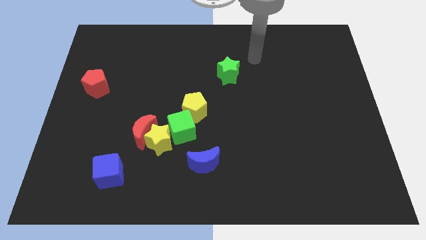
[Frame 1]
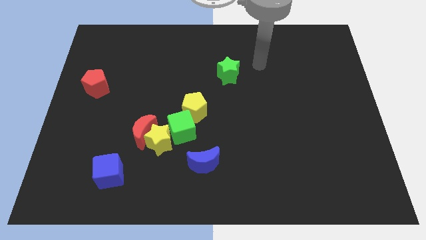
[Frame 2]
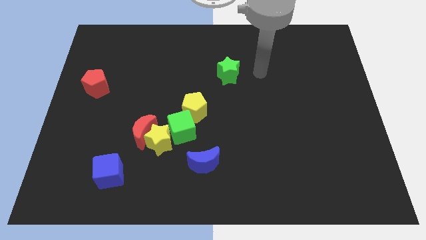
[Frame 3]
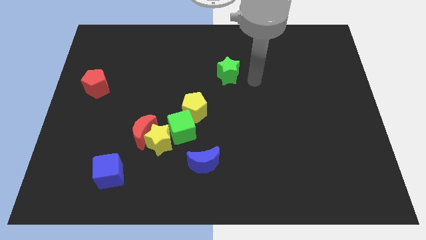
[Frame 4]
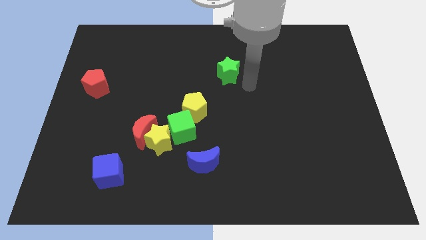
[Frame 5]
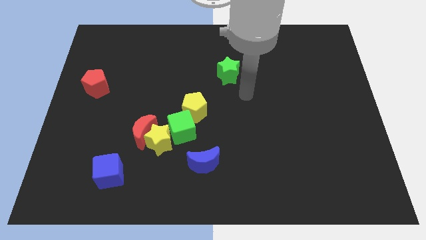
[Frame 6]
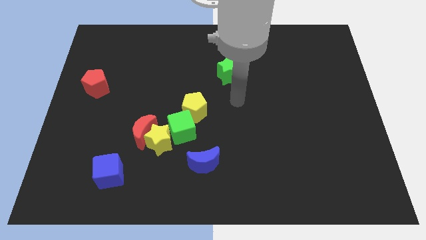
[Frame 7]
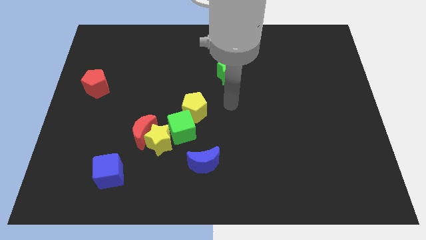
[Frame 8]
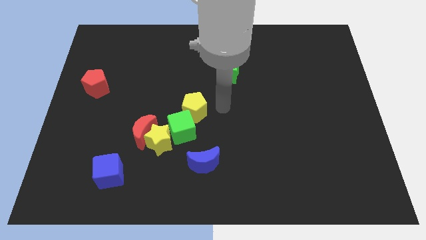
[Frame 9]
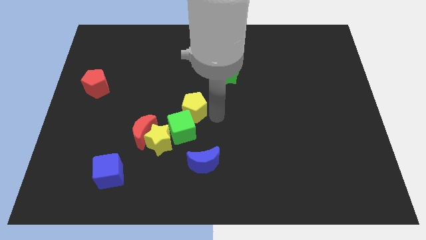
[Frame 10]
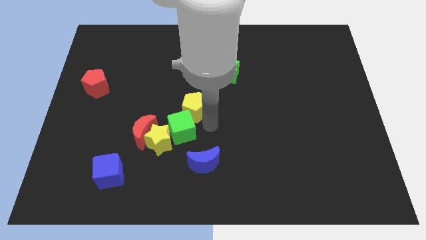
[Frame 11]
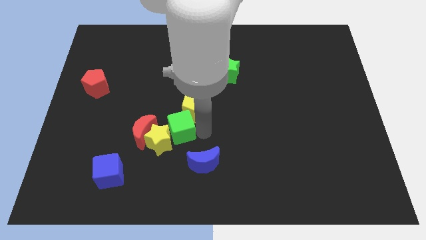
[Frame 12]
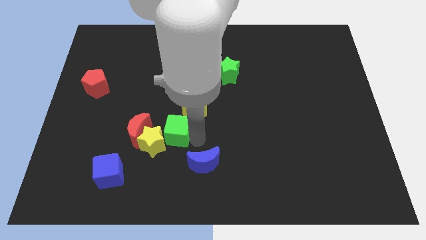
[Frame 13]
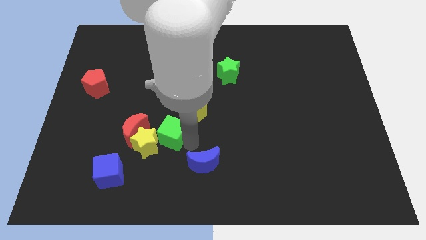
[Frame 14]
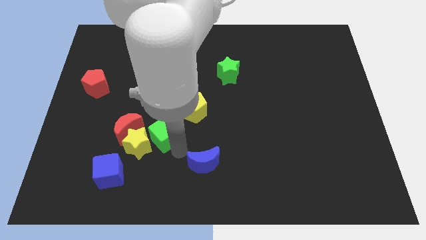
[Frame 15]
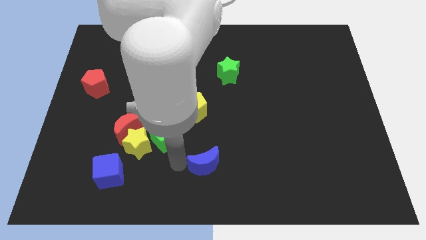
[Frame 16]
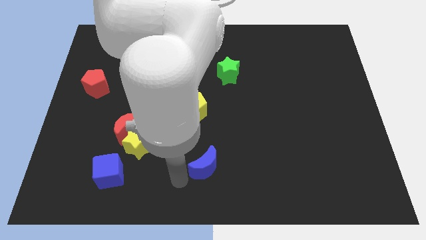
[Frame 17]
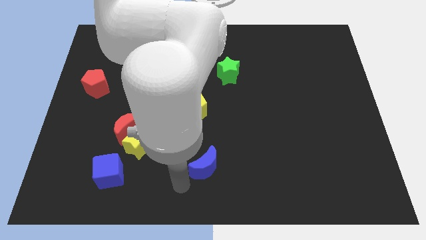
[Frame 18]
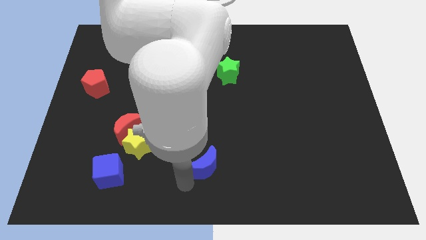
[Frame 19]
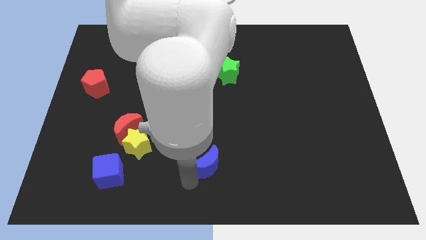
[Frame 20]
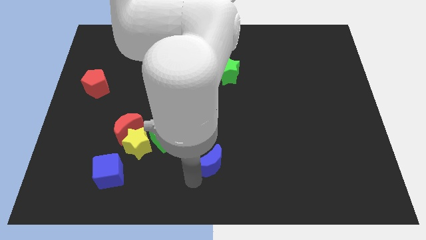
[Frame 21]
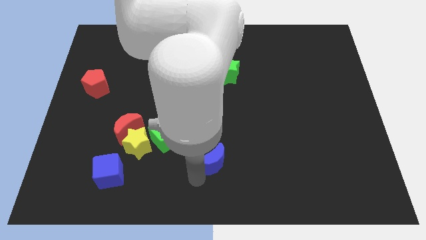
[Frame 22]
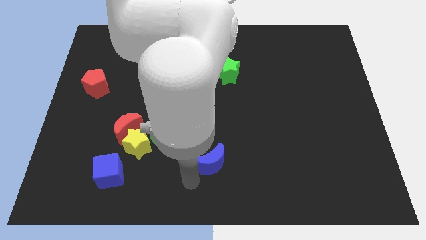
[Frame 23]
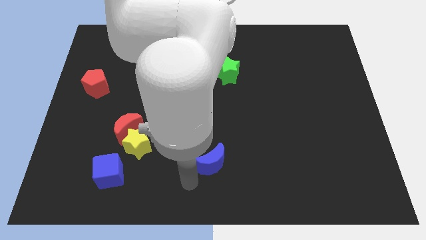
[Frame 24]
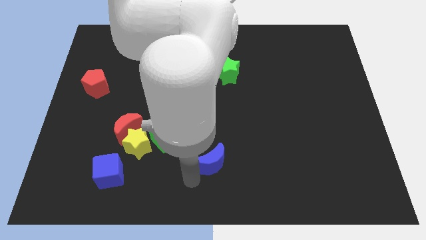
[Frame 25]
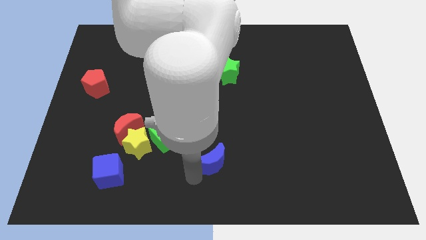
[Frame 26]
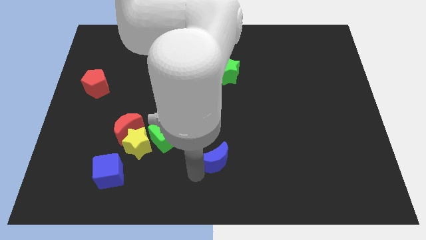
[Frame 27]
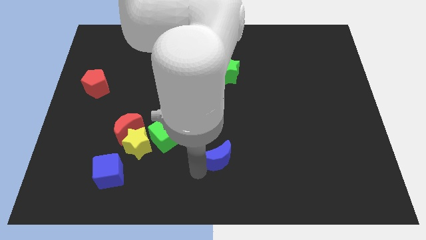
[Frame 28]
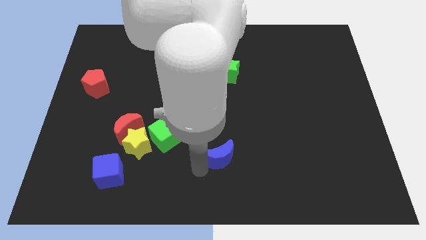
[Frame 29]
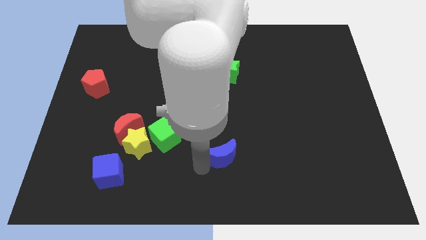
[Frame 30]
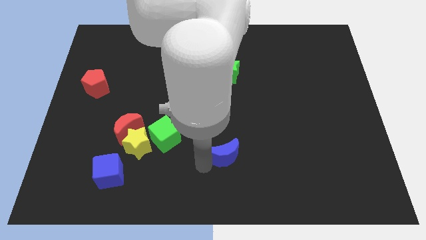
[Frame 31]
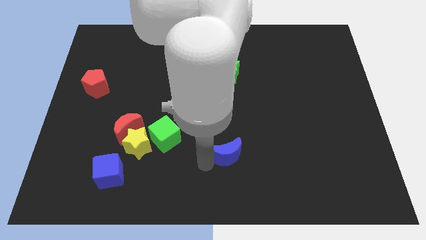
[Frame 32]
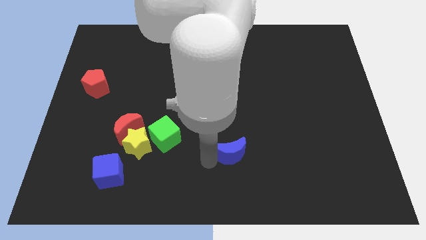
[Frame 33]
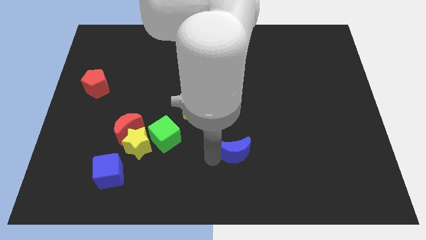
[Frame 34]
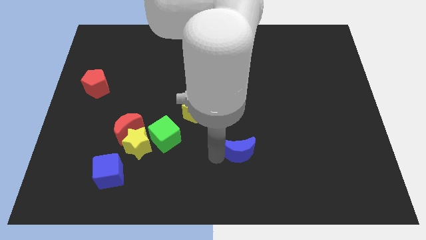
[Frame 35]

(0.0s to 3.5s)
slide the blue moon a bit up and right diagonally

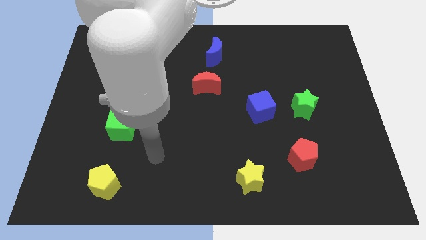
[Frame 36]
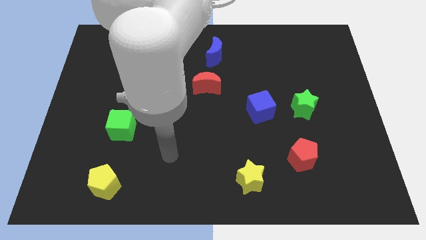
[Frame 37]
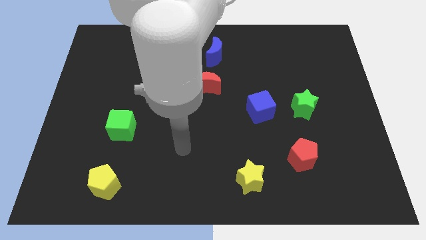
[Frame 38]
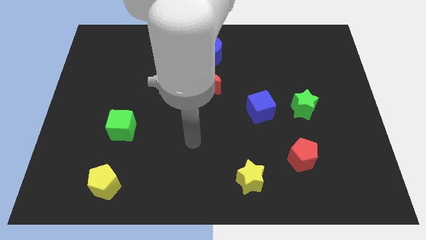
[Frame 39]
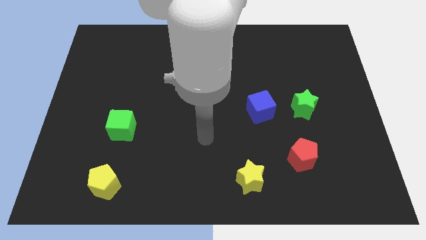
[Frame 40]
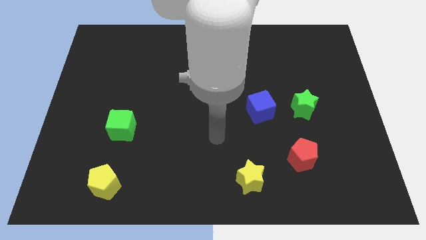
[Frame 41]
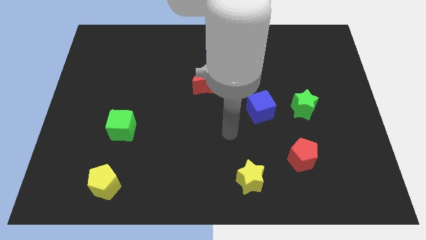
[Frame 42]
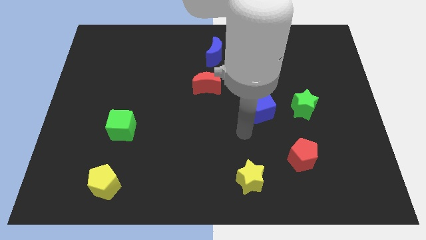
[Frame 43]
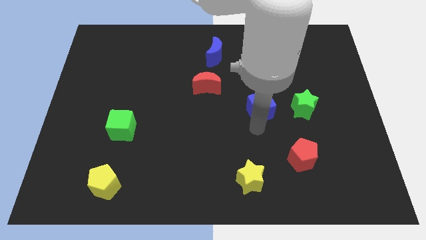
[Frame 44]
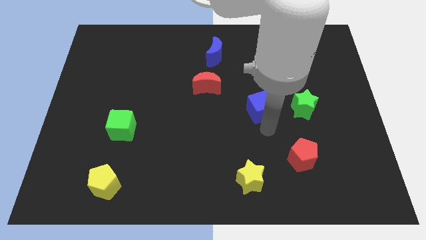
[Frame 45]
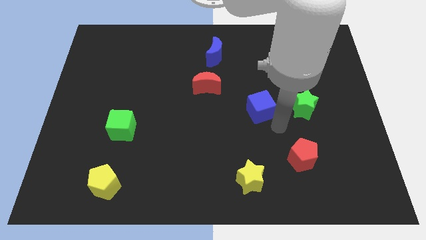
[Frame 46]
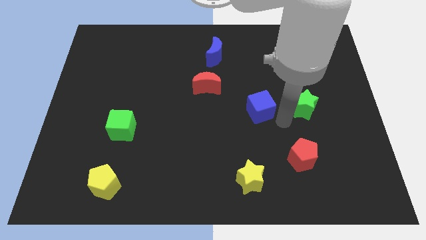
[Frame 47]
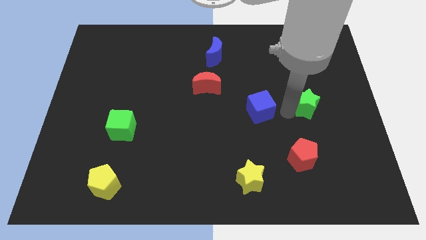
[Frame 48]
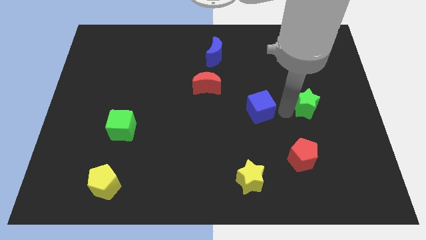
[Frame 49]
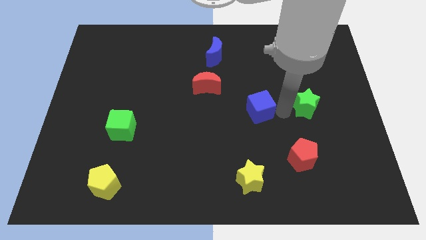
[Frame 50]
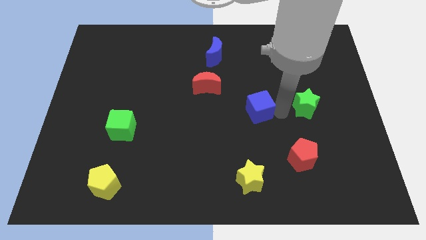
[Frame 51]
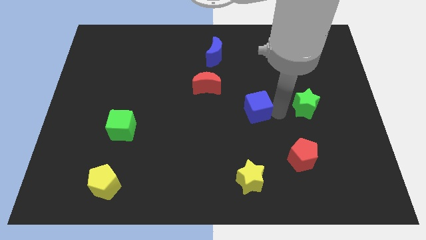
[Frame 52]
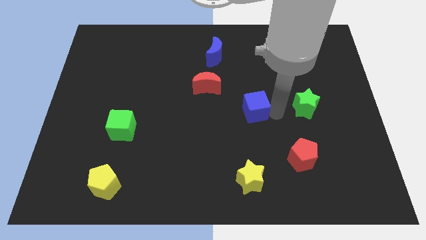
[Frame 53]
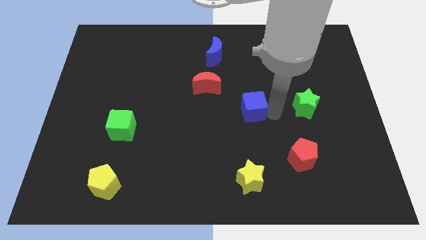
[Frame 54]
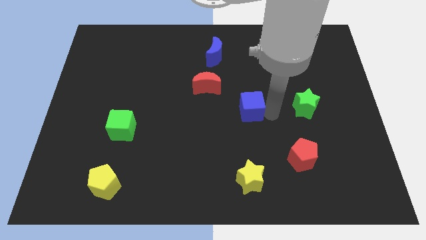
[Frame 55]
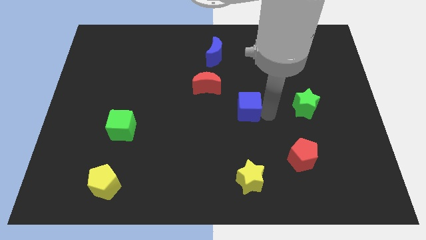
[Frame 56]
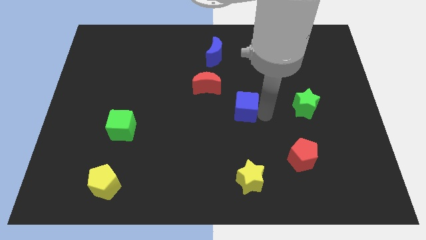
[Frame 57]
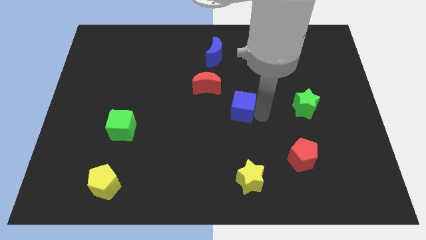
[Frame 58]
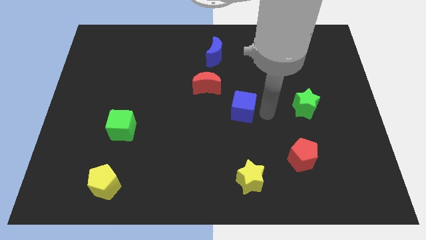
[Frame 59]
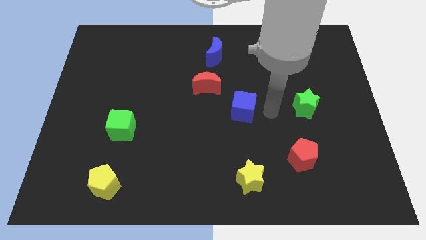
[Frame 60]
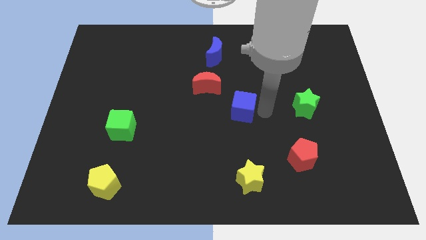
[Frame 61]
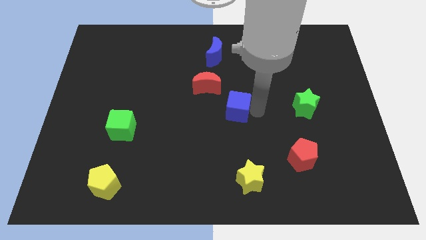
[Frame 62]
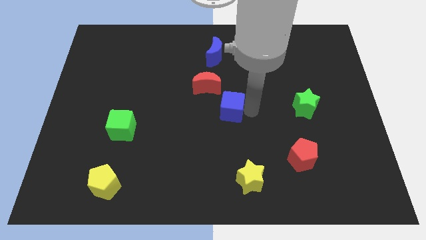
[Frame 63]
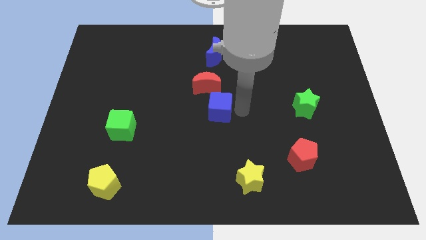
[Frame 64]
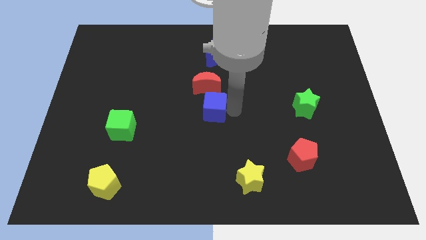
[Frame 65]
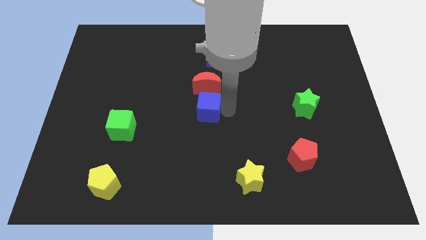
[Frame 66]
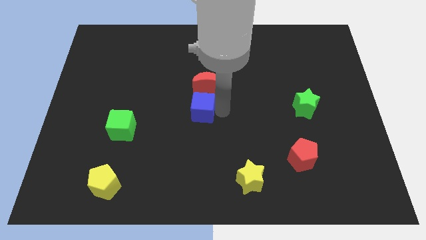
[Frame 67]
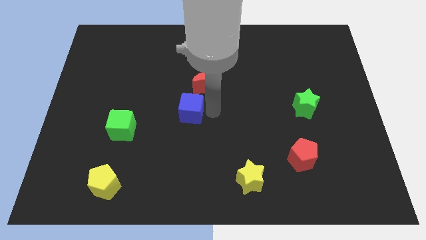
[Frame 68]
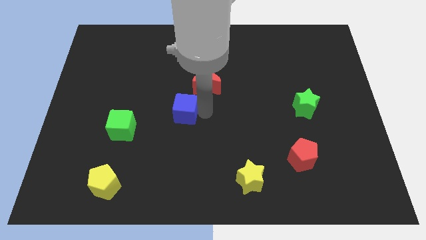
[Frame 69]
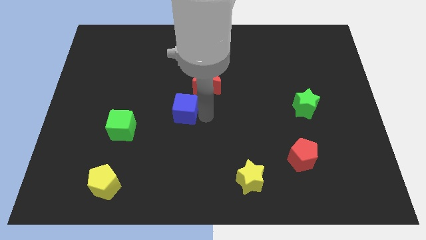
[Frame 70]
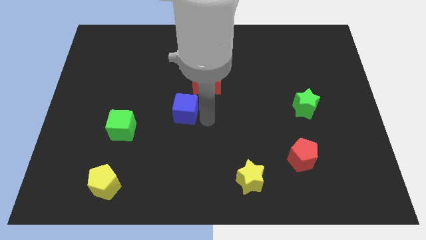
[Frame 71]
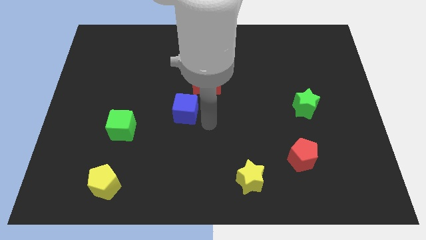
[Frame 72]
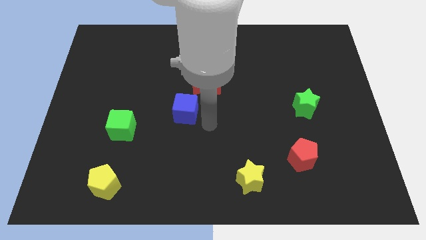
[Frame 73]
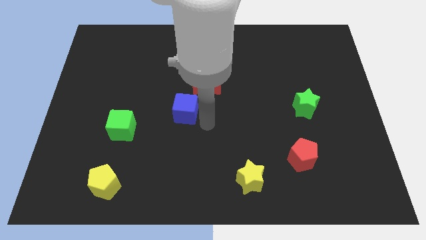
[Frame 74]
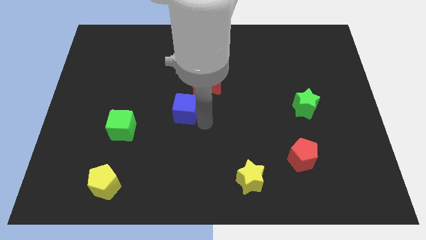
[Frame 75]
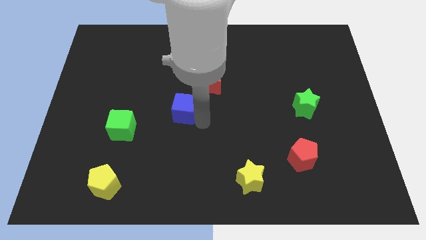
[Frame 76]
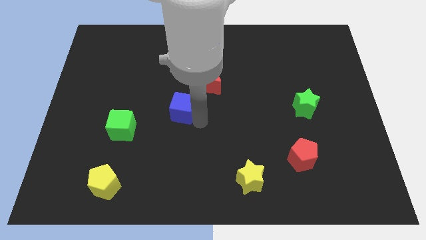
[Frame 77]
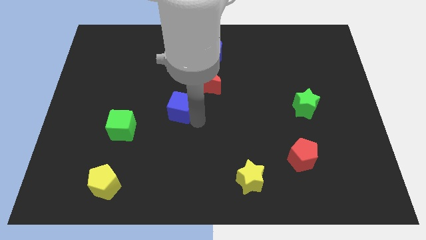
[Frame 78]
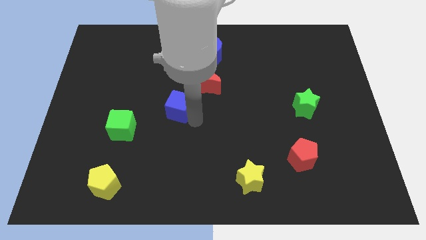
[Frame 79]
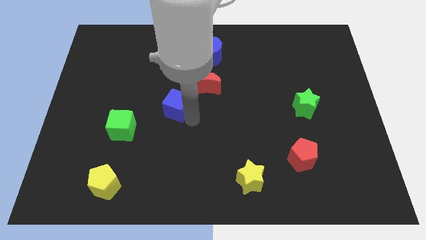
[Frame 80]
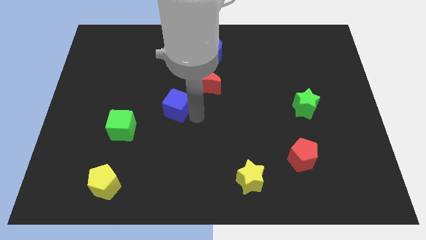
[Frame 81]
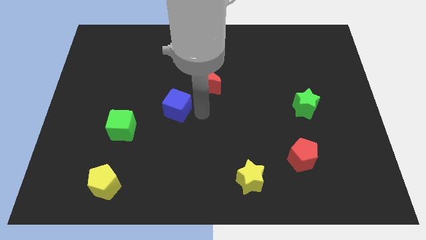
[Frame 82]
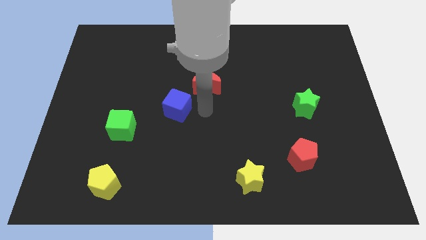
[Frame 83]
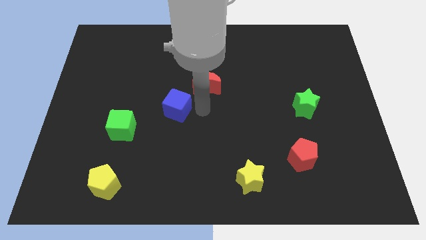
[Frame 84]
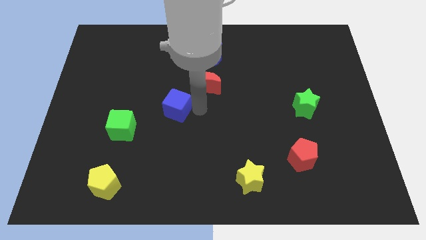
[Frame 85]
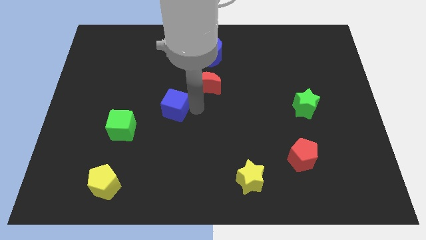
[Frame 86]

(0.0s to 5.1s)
push the blue cube left
